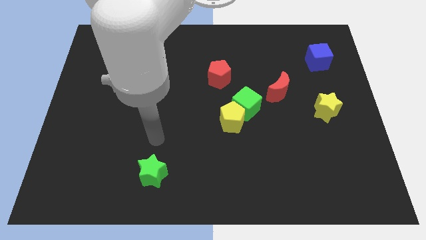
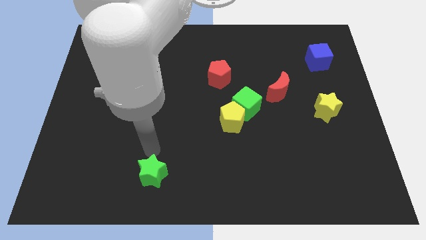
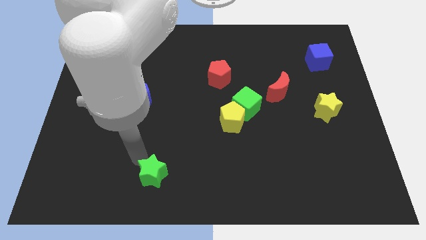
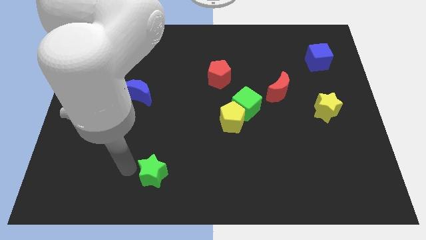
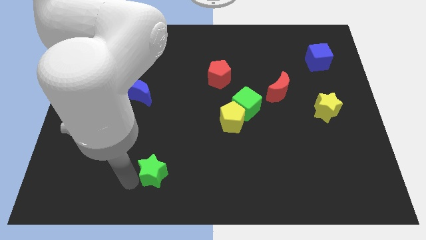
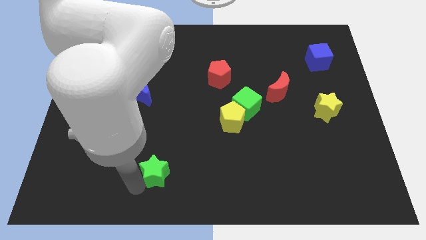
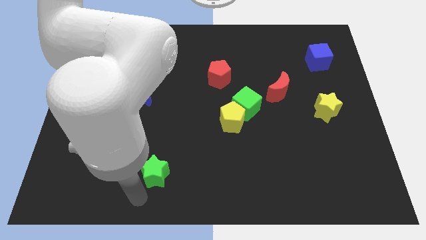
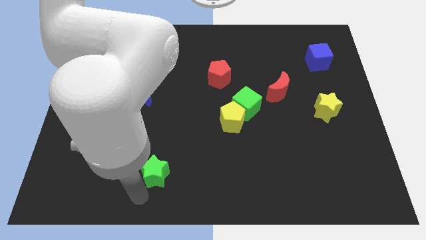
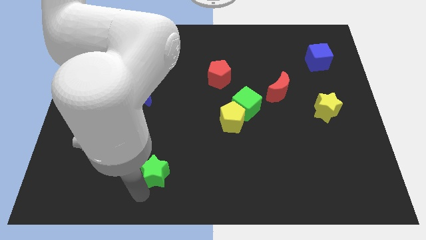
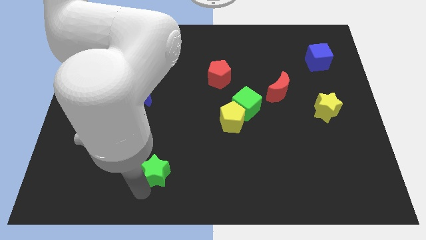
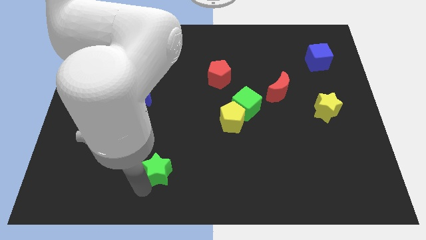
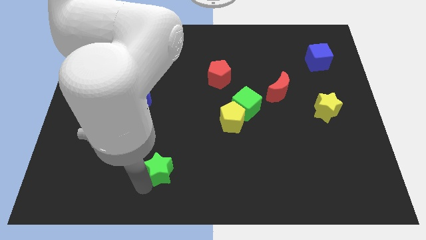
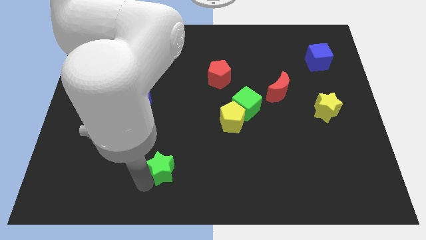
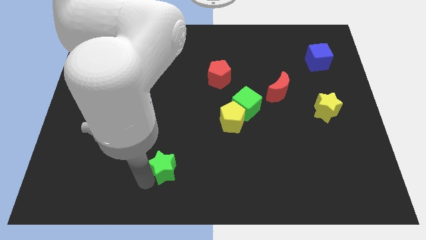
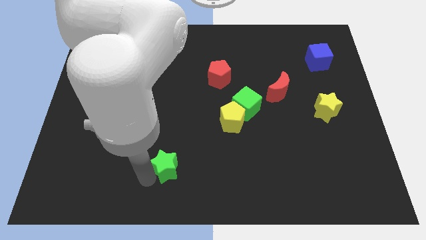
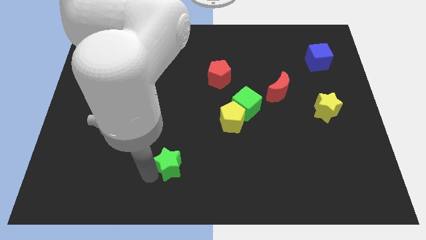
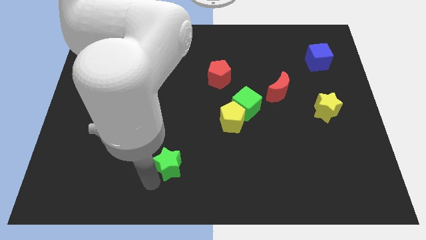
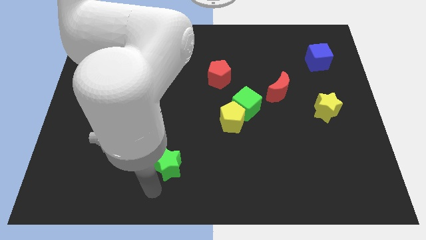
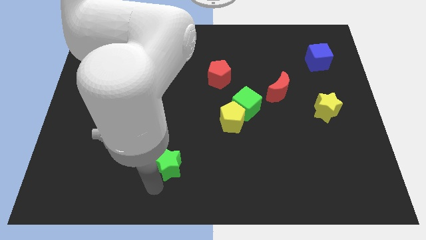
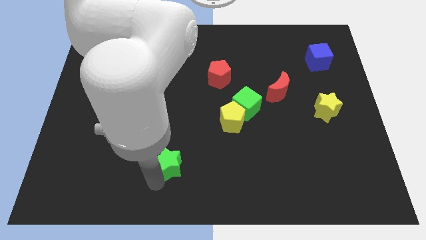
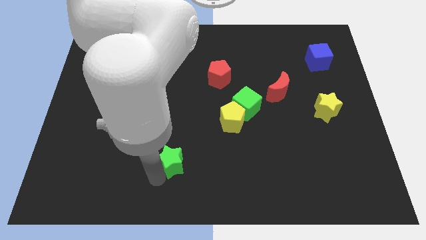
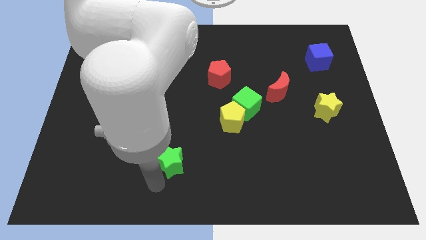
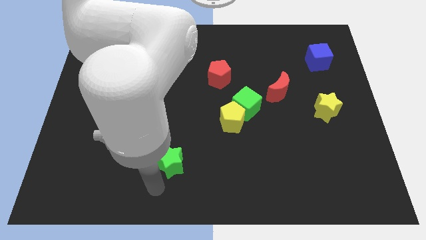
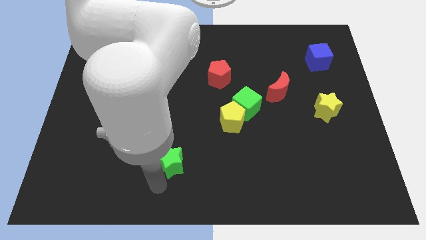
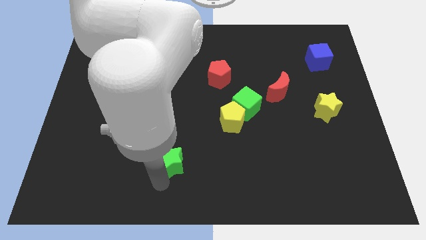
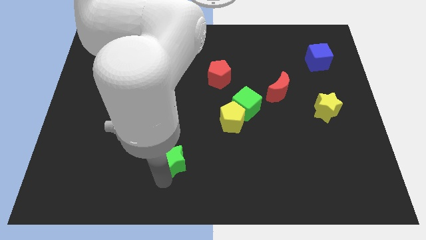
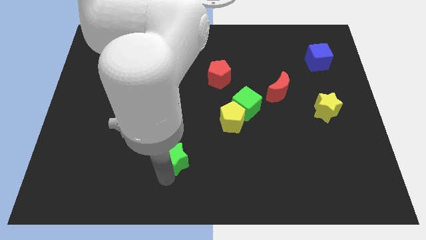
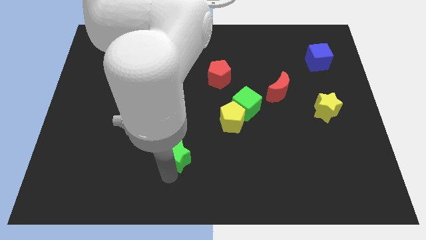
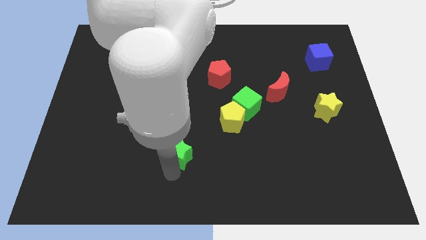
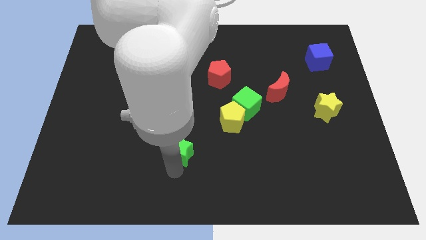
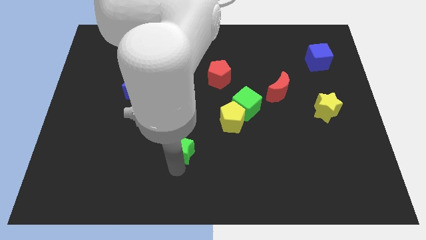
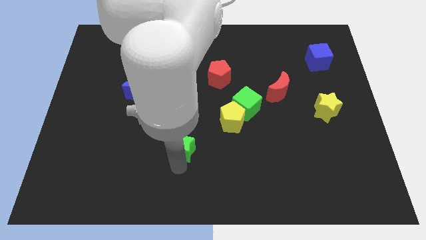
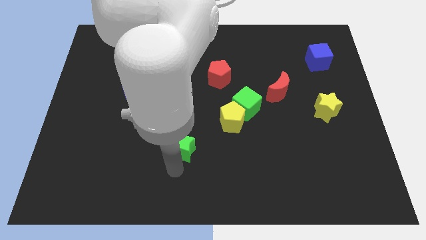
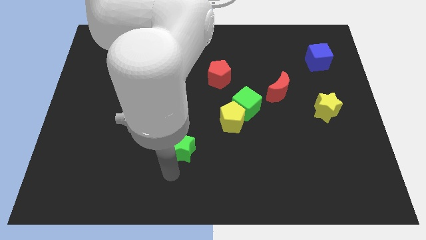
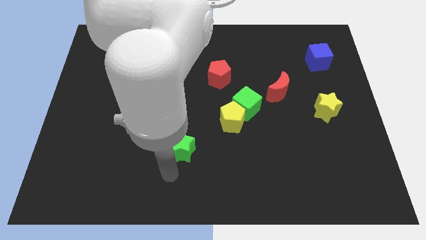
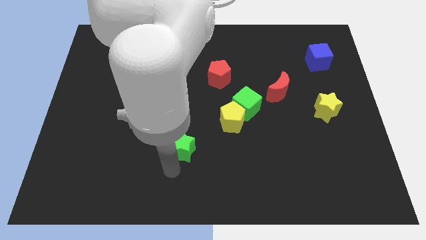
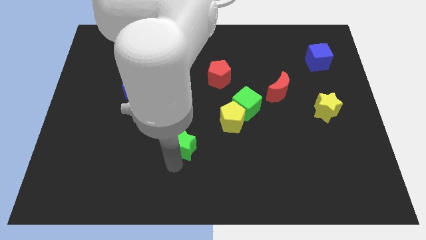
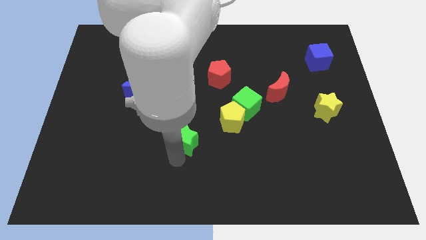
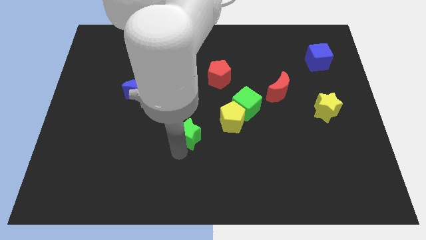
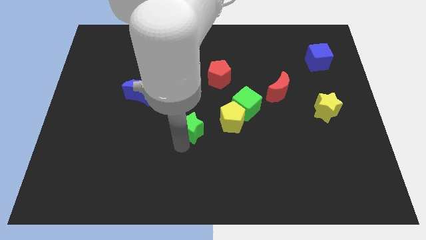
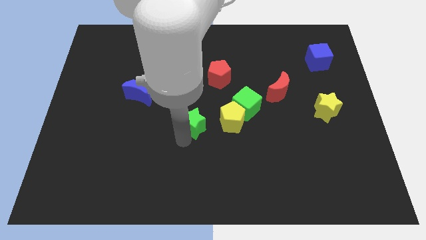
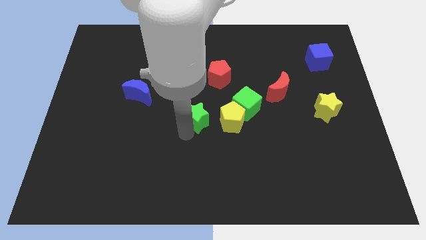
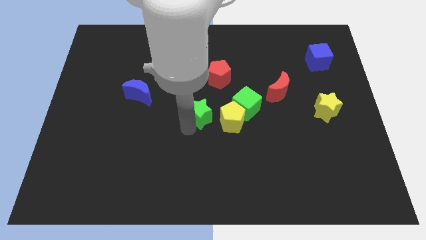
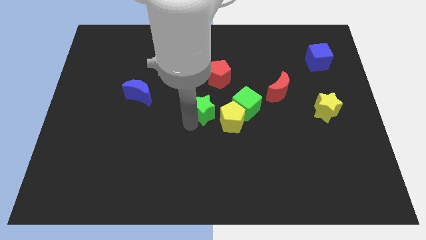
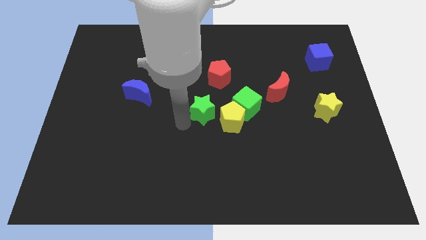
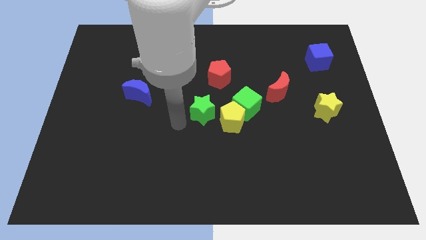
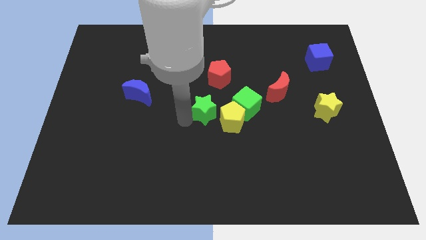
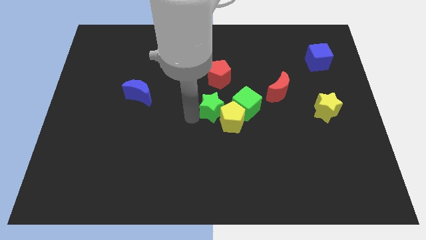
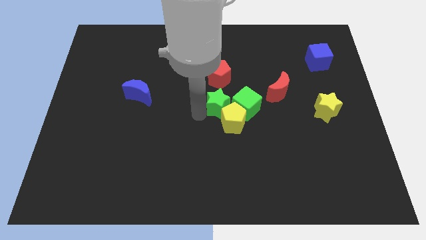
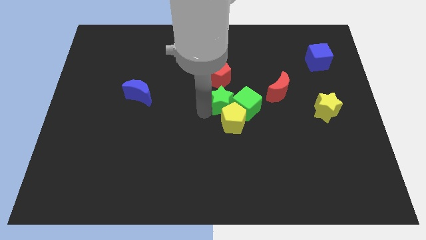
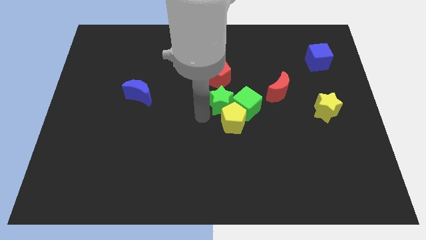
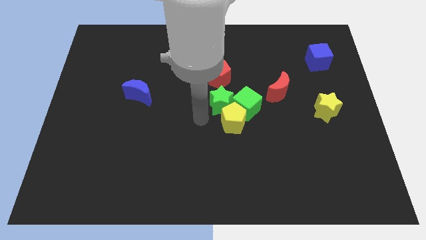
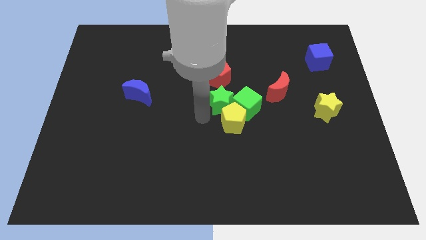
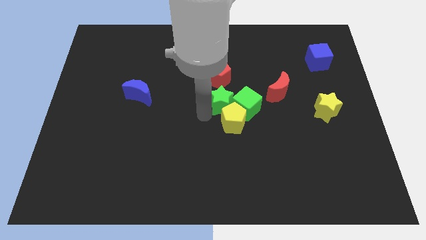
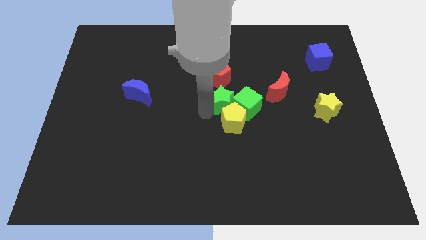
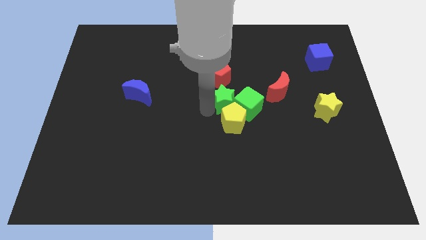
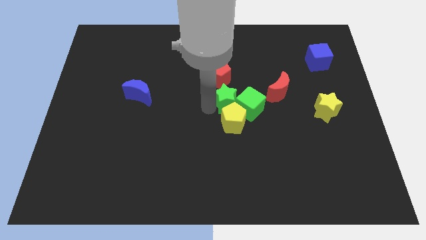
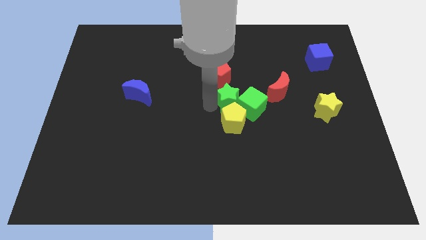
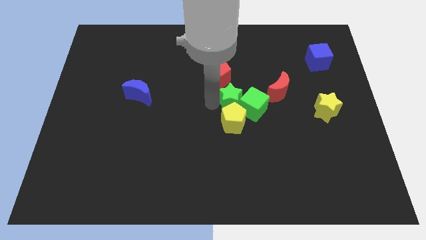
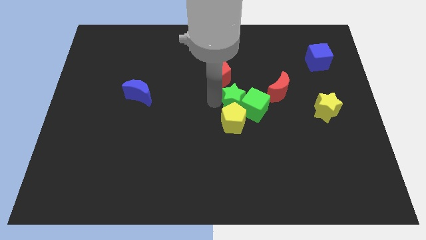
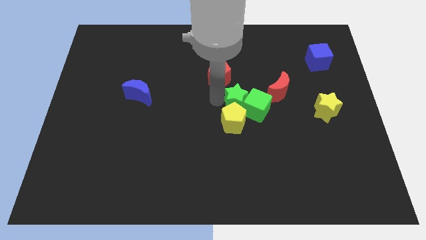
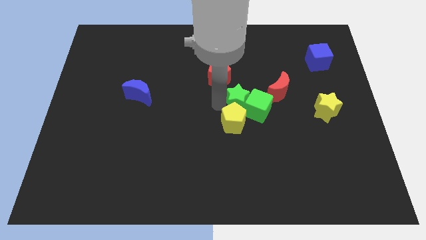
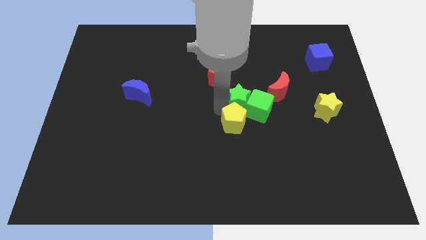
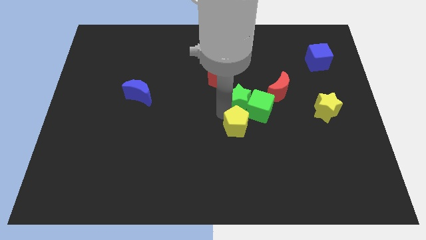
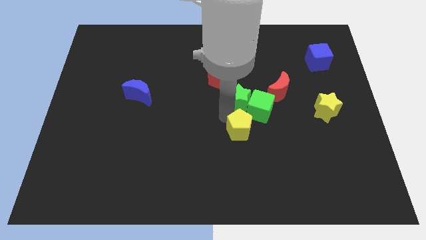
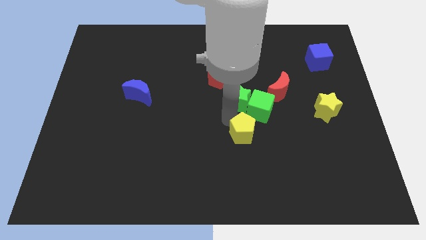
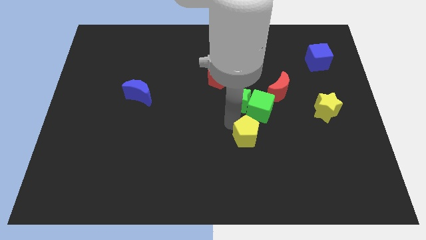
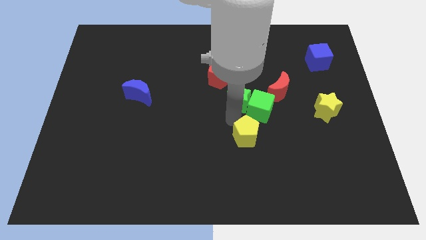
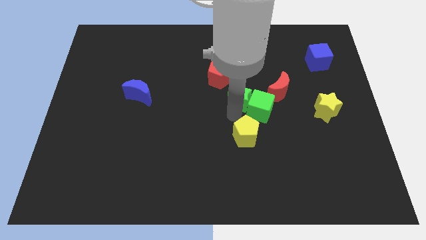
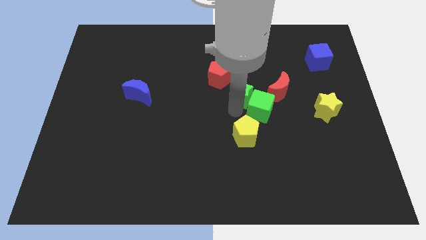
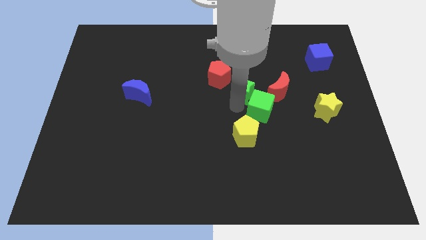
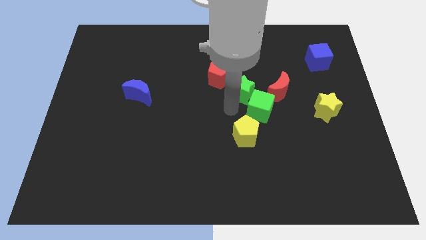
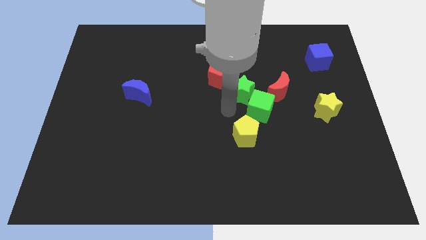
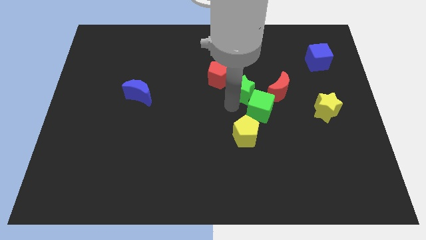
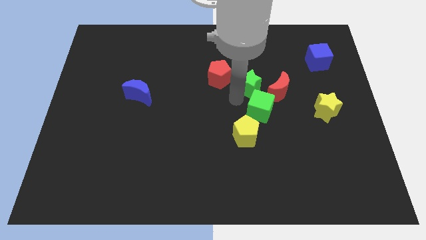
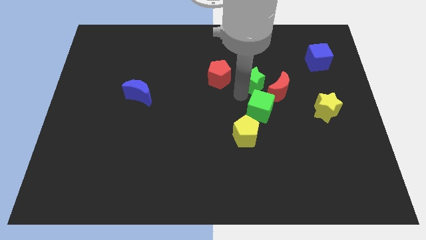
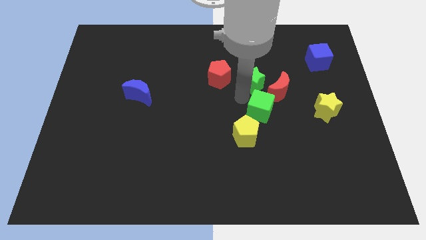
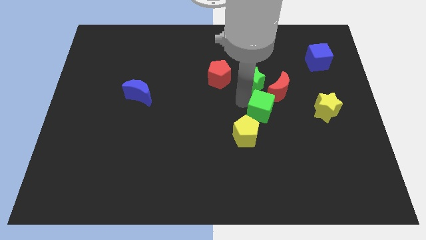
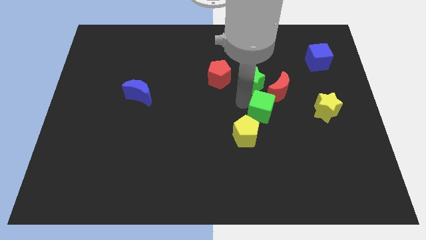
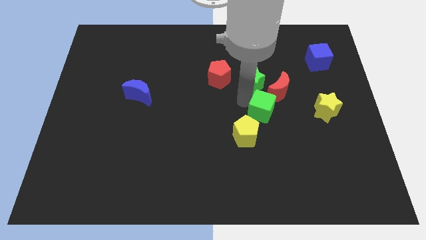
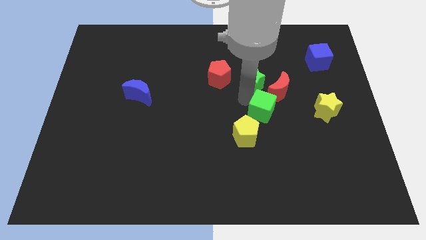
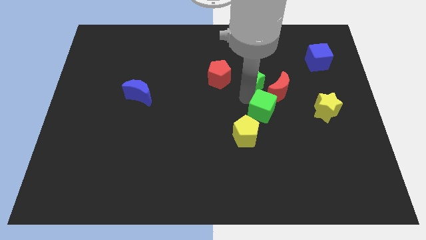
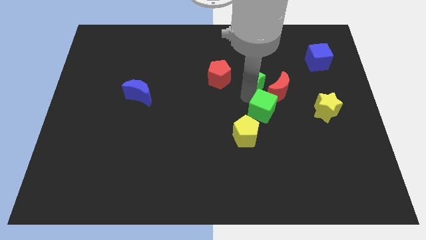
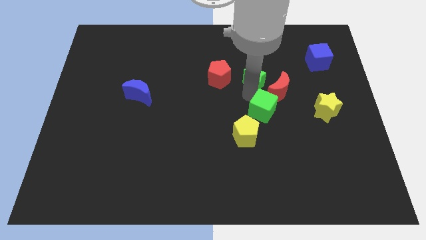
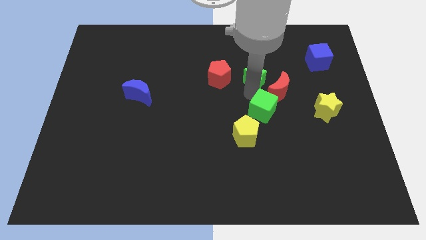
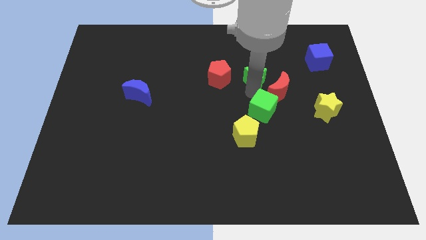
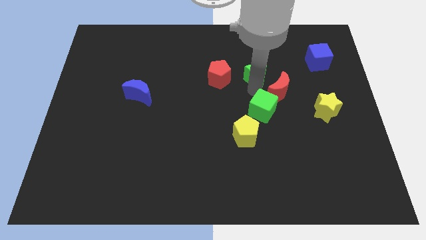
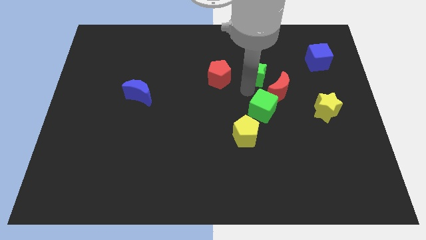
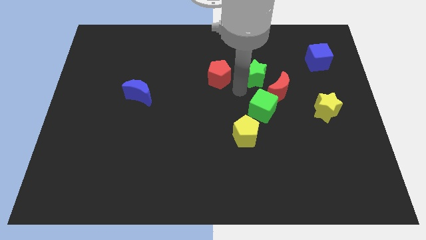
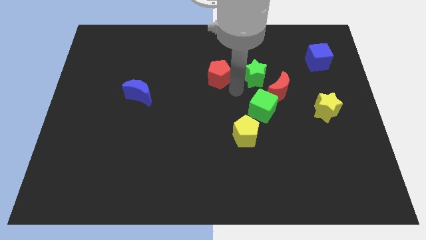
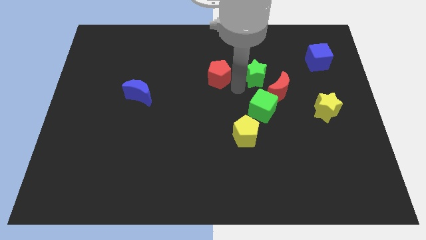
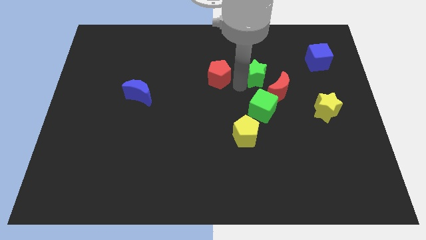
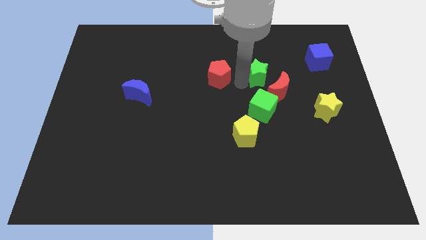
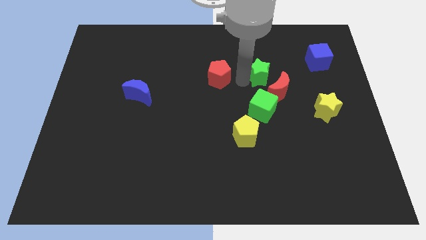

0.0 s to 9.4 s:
slide the green star above the red moon
